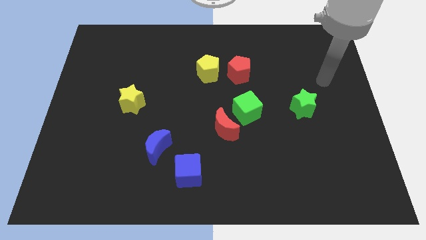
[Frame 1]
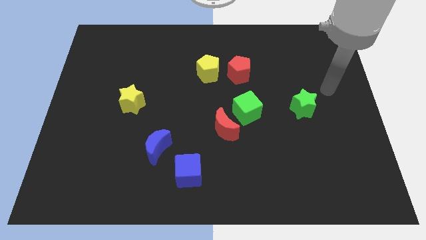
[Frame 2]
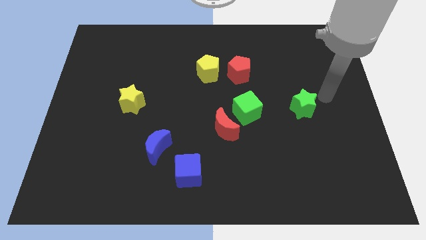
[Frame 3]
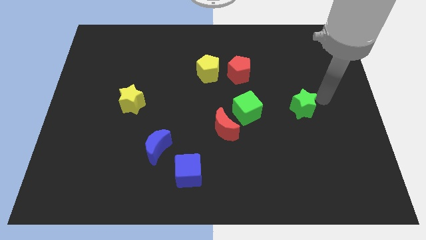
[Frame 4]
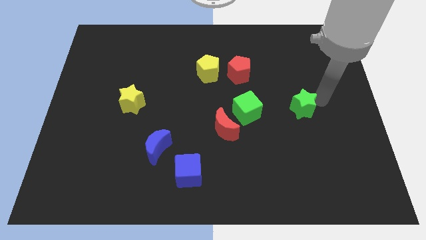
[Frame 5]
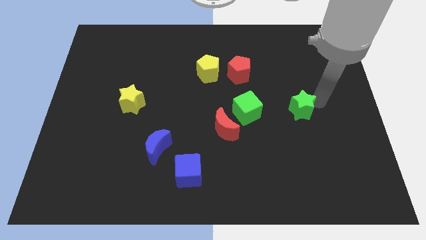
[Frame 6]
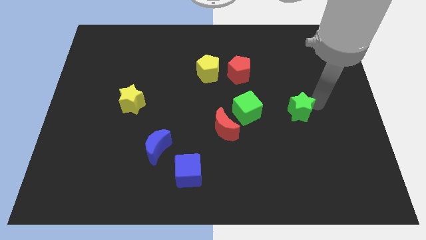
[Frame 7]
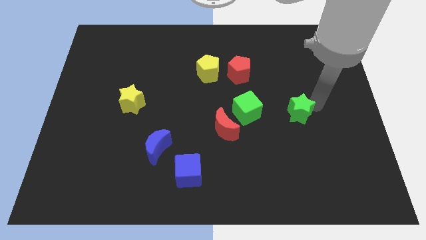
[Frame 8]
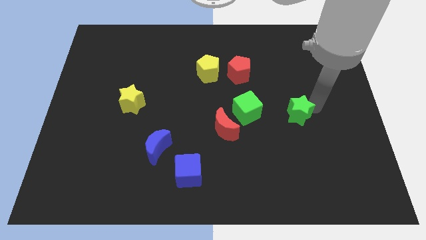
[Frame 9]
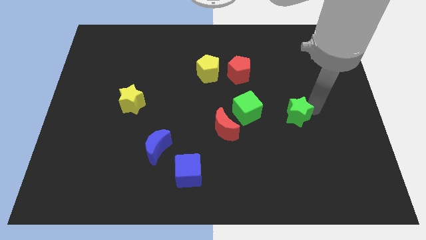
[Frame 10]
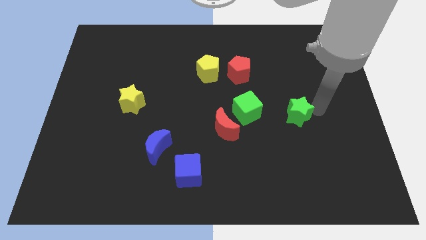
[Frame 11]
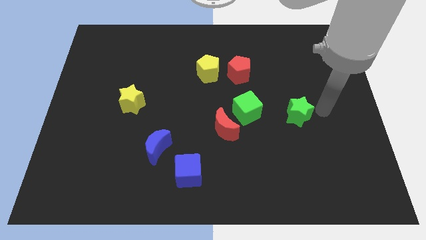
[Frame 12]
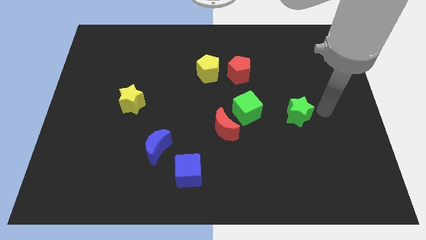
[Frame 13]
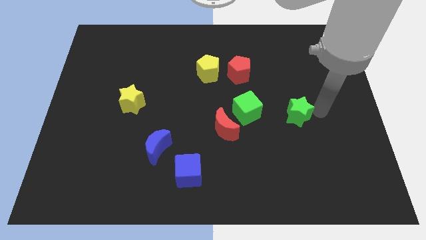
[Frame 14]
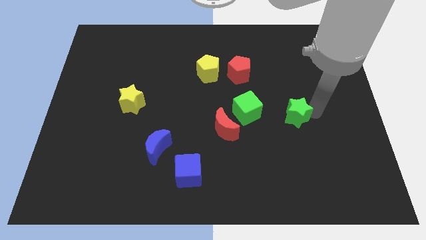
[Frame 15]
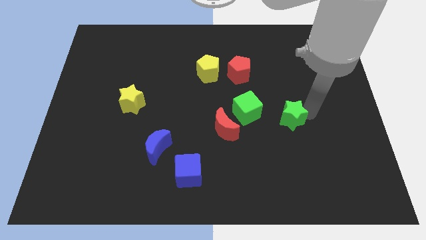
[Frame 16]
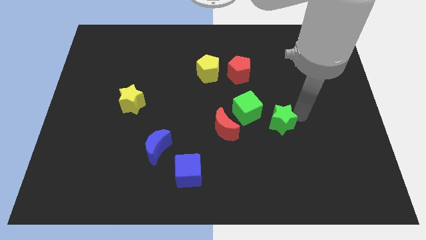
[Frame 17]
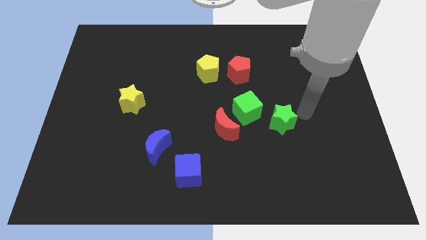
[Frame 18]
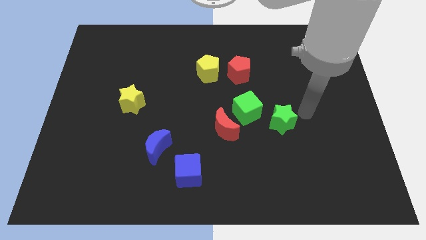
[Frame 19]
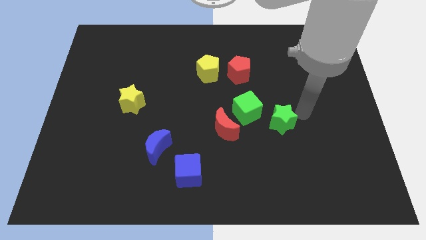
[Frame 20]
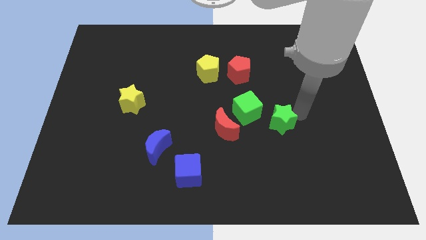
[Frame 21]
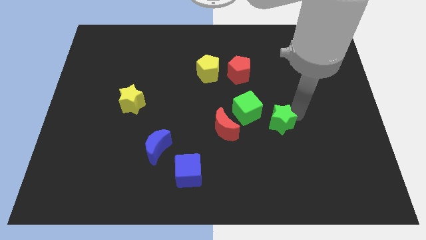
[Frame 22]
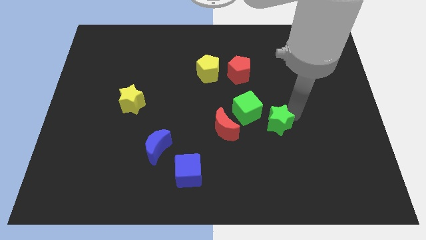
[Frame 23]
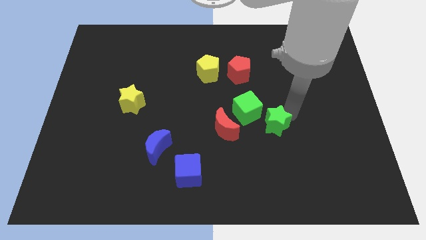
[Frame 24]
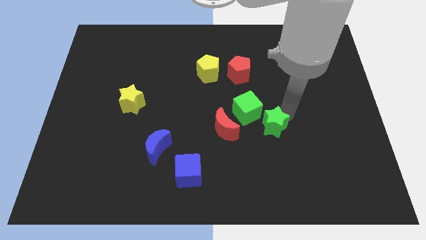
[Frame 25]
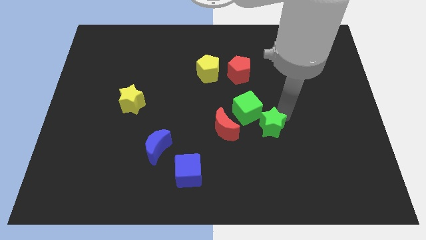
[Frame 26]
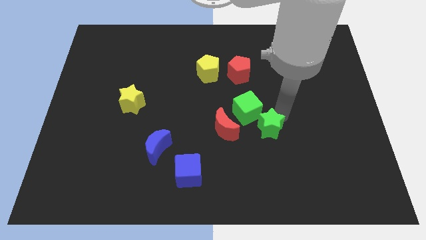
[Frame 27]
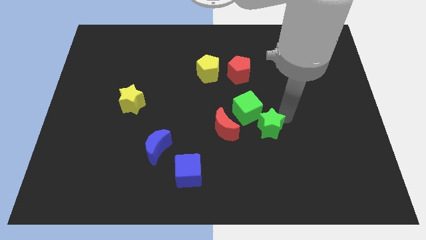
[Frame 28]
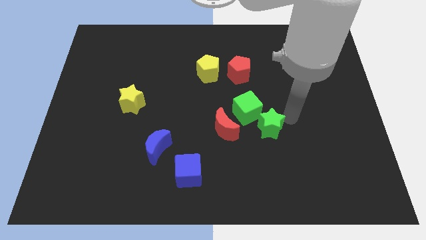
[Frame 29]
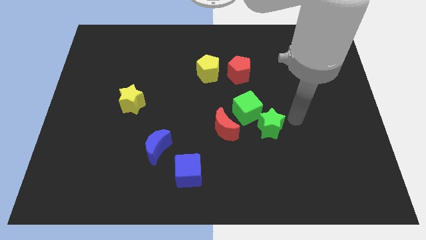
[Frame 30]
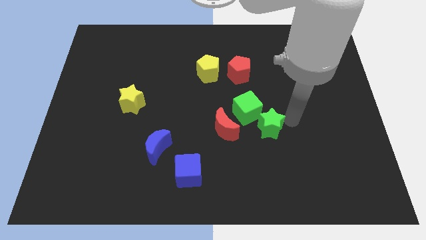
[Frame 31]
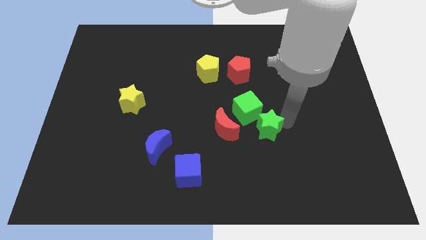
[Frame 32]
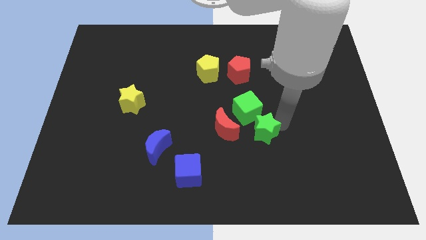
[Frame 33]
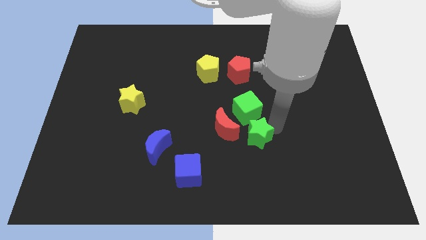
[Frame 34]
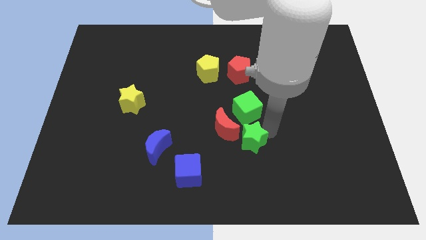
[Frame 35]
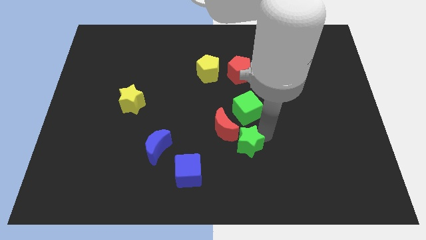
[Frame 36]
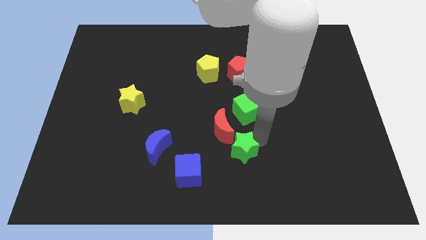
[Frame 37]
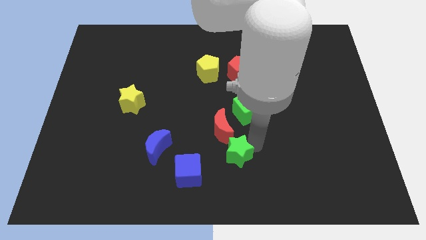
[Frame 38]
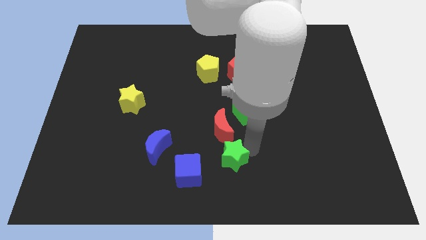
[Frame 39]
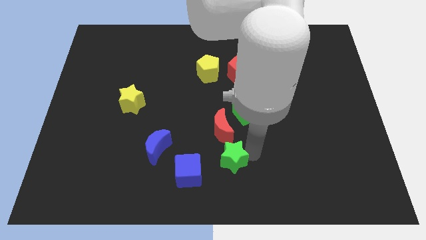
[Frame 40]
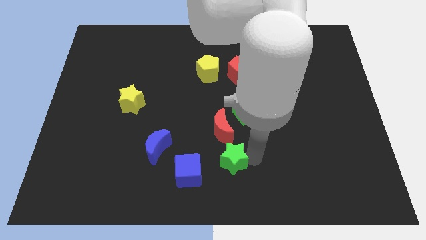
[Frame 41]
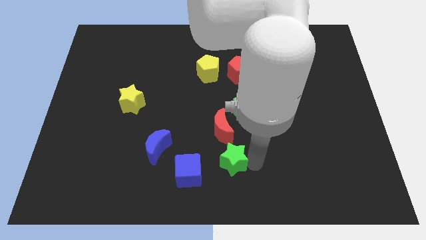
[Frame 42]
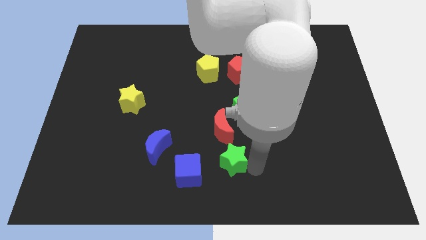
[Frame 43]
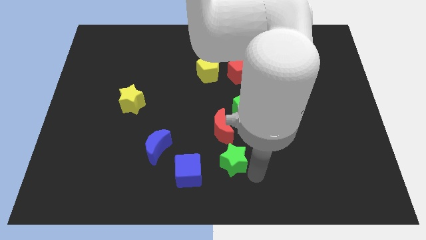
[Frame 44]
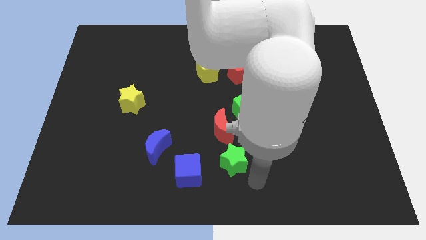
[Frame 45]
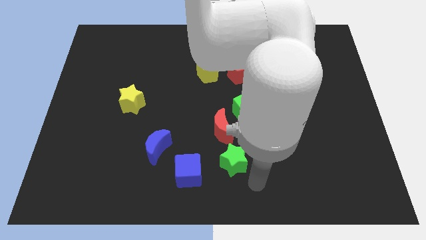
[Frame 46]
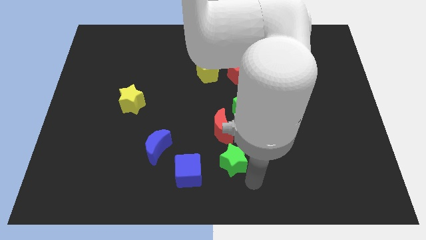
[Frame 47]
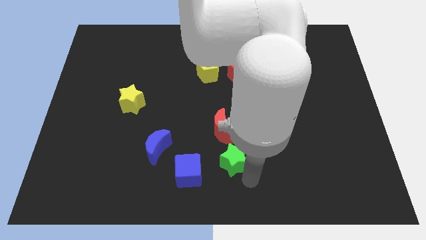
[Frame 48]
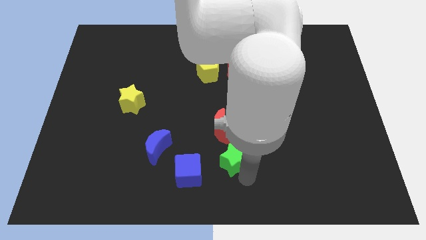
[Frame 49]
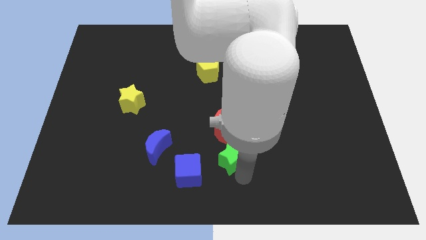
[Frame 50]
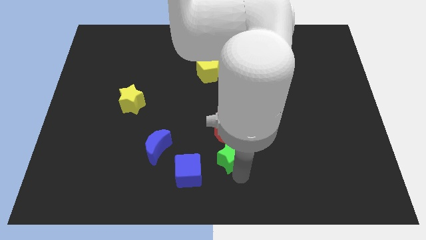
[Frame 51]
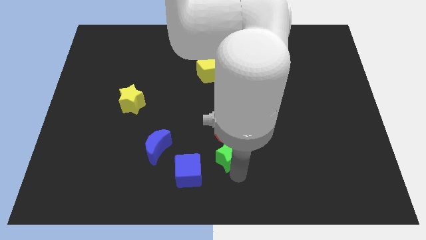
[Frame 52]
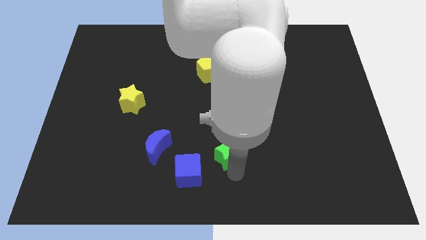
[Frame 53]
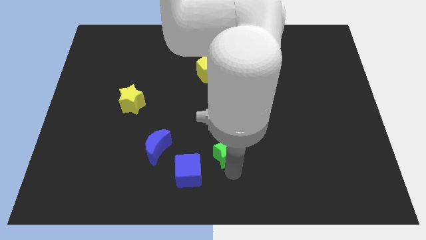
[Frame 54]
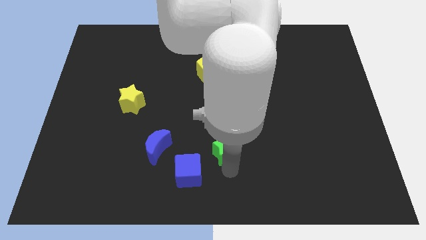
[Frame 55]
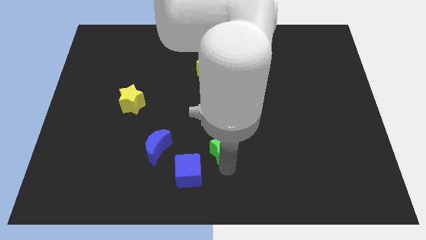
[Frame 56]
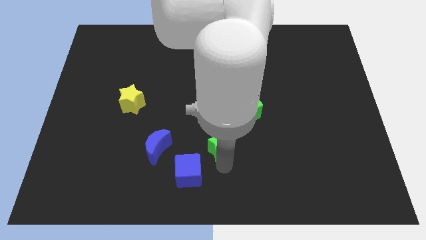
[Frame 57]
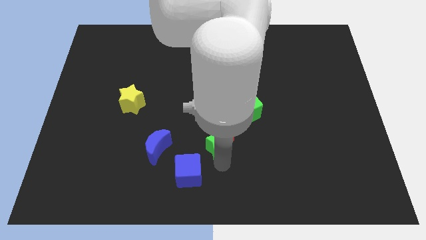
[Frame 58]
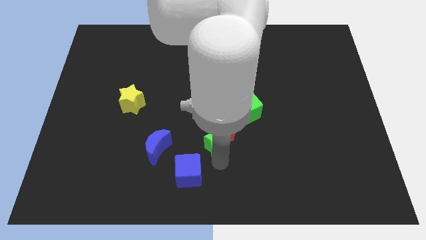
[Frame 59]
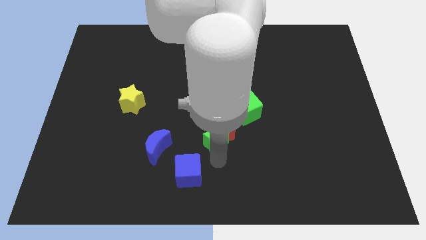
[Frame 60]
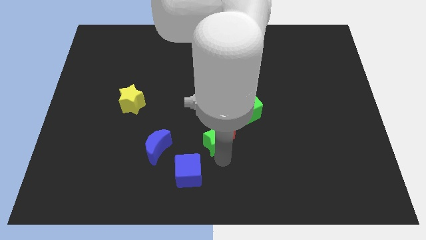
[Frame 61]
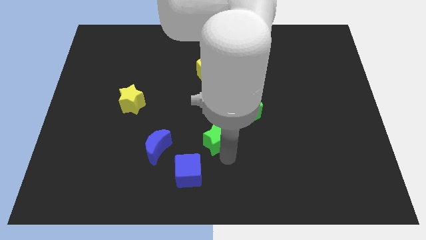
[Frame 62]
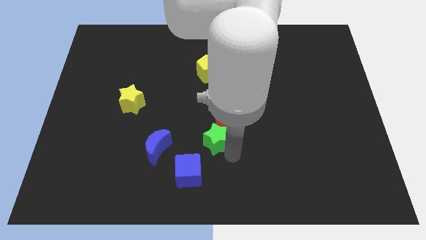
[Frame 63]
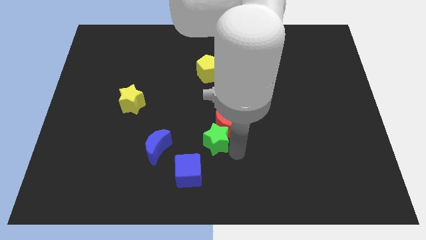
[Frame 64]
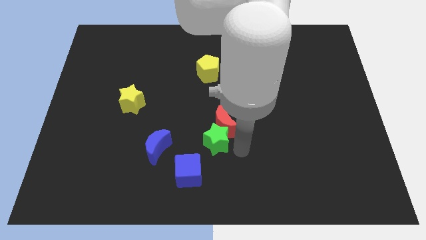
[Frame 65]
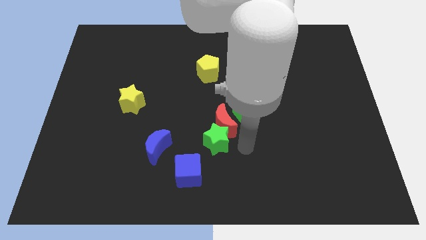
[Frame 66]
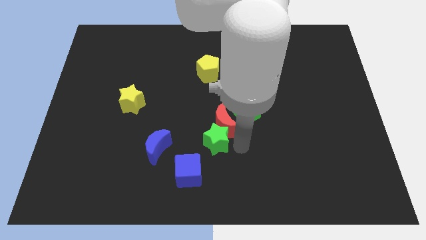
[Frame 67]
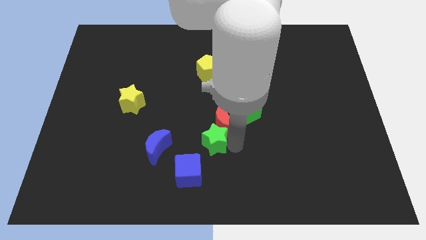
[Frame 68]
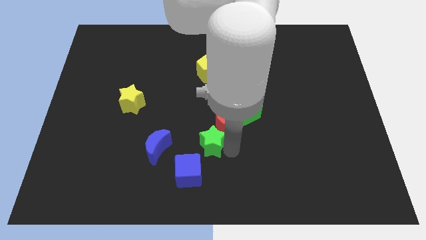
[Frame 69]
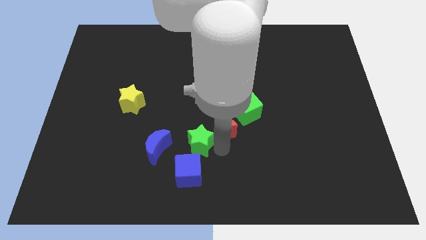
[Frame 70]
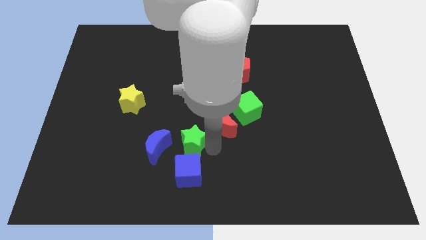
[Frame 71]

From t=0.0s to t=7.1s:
move the green star to the left of the red moon

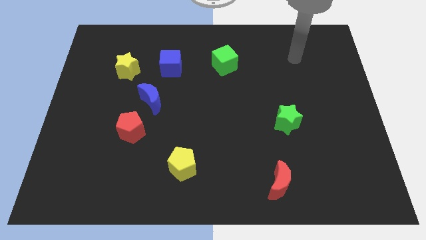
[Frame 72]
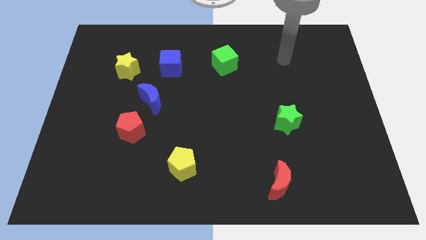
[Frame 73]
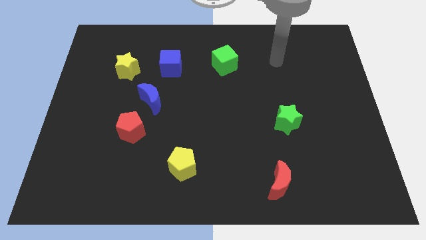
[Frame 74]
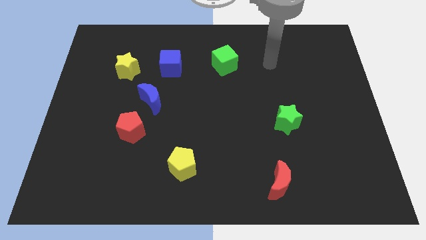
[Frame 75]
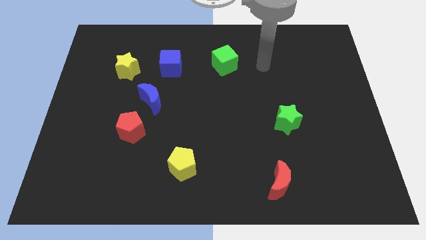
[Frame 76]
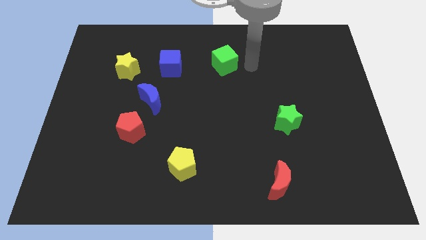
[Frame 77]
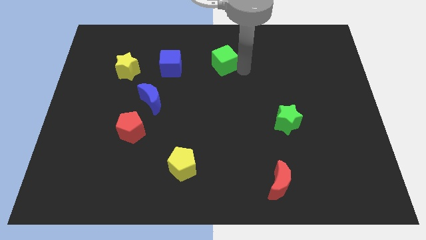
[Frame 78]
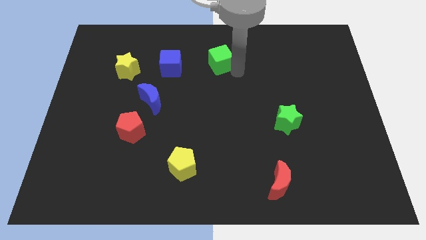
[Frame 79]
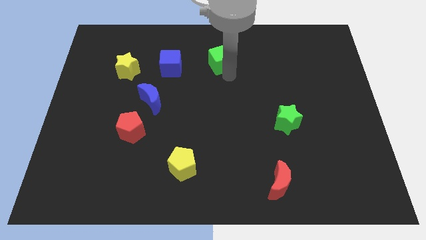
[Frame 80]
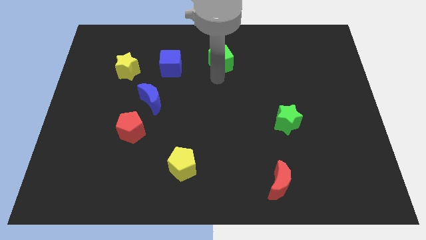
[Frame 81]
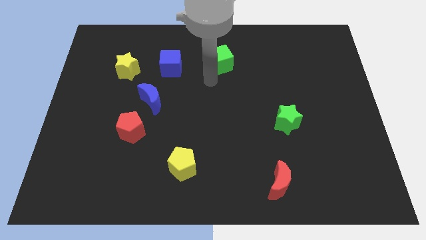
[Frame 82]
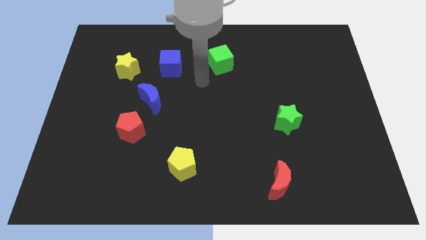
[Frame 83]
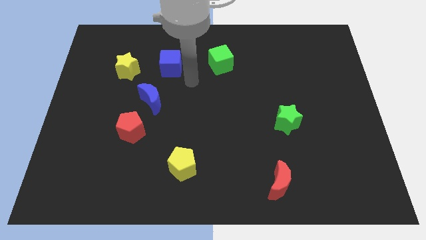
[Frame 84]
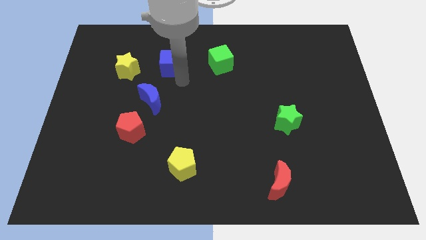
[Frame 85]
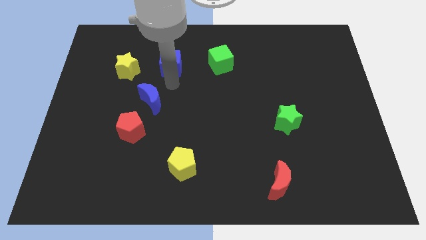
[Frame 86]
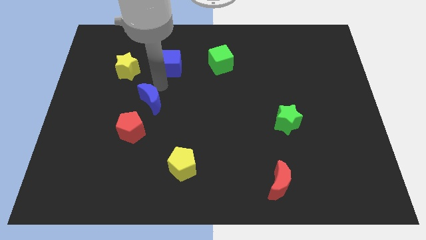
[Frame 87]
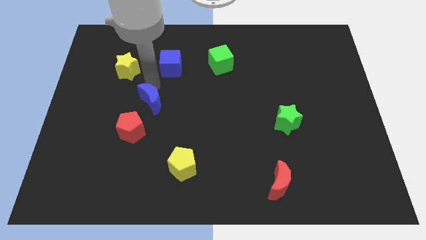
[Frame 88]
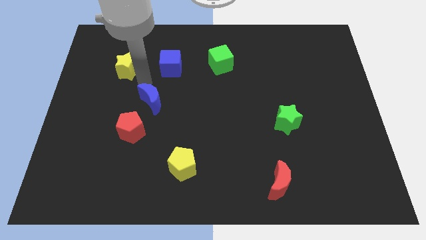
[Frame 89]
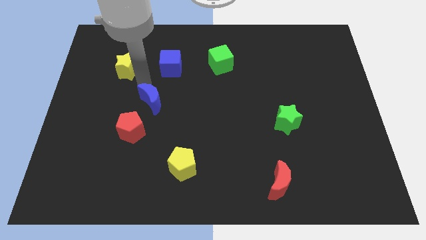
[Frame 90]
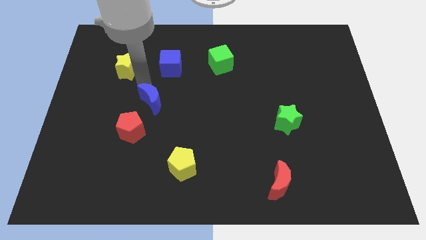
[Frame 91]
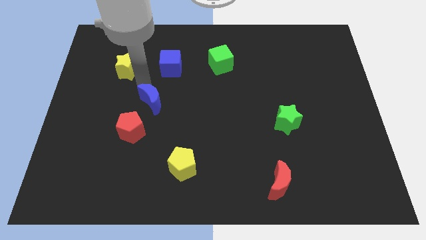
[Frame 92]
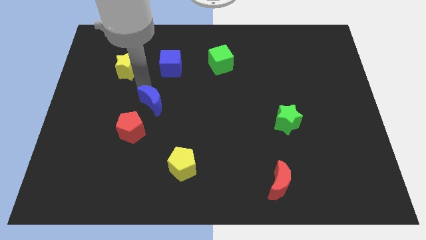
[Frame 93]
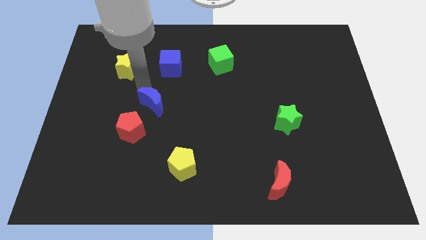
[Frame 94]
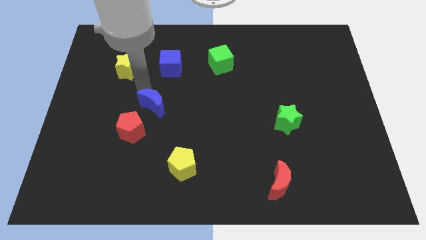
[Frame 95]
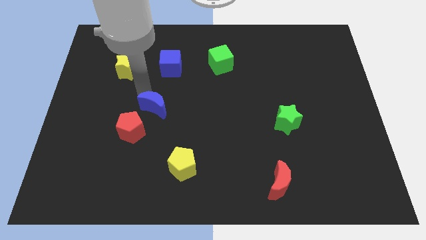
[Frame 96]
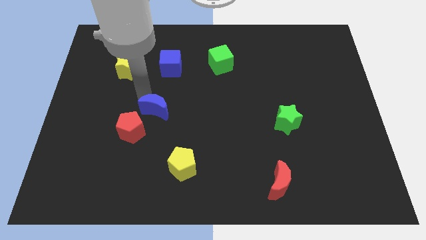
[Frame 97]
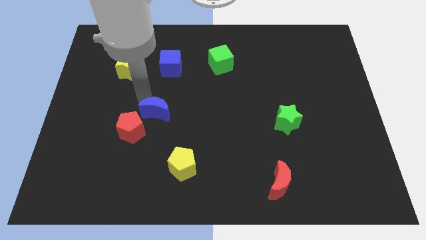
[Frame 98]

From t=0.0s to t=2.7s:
slide the blue moon just right of the red pentagon
